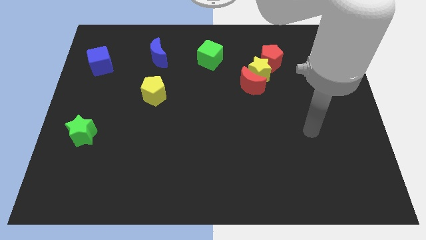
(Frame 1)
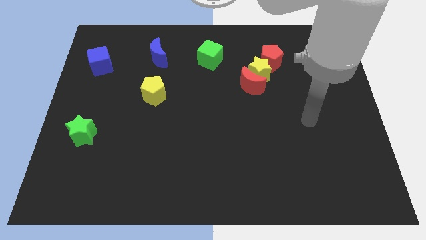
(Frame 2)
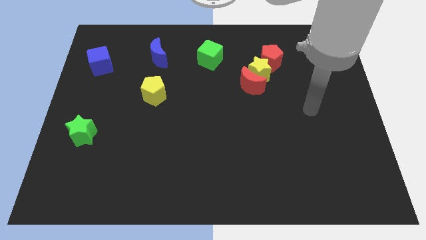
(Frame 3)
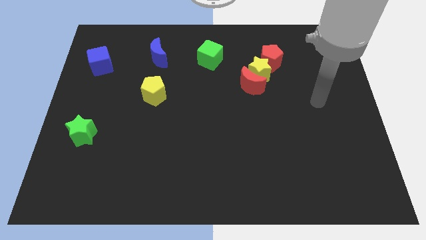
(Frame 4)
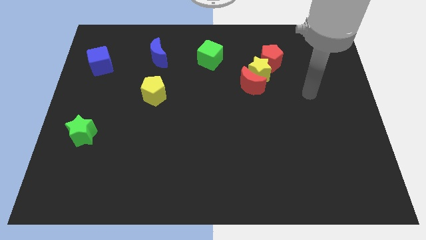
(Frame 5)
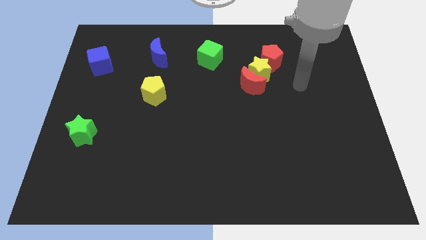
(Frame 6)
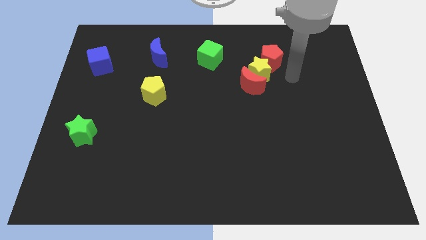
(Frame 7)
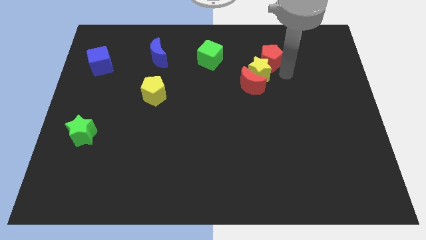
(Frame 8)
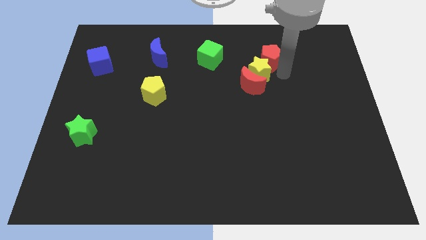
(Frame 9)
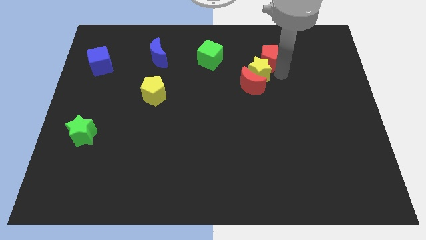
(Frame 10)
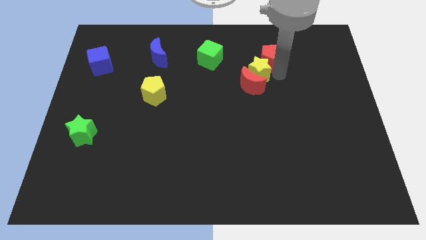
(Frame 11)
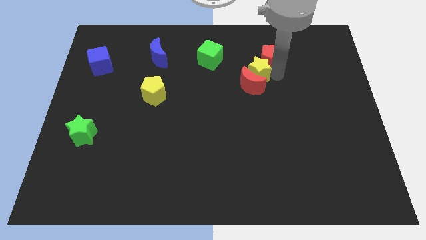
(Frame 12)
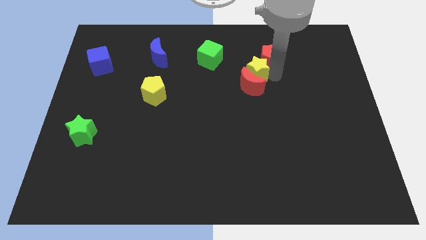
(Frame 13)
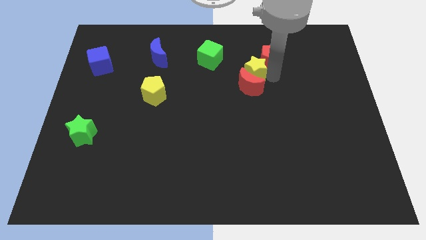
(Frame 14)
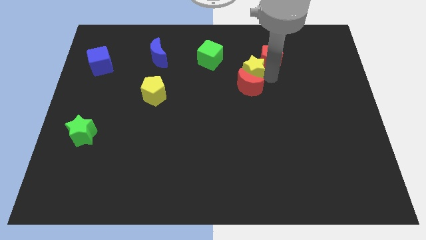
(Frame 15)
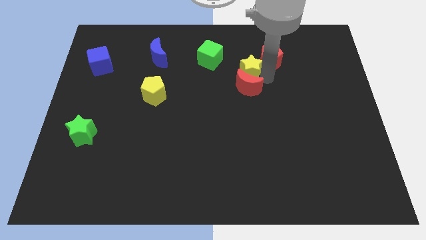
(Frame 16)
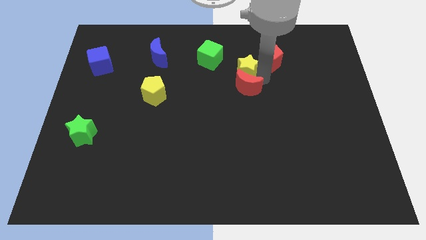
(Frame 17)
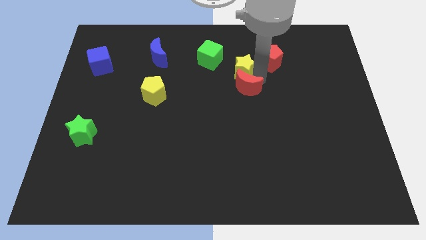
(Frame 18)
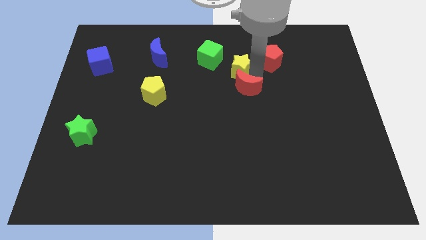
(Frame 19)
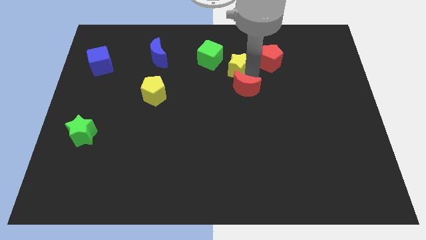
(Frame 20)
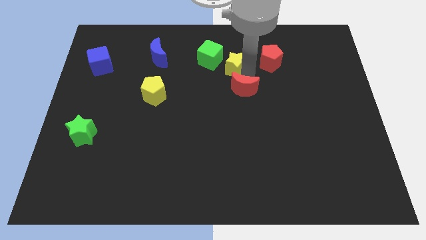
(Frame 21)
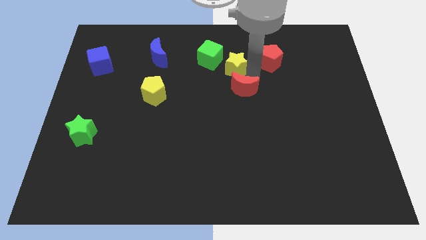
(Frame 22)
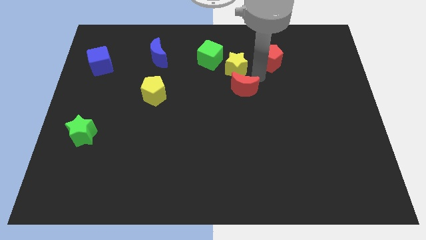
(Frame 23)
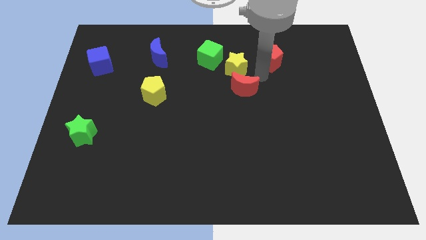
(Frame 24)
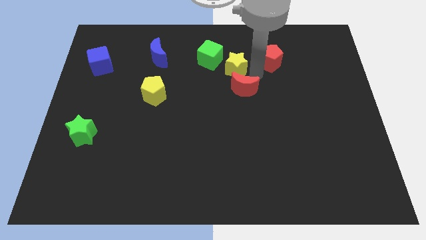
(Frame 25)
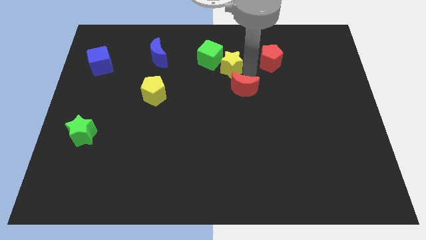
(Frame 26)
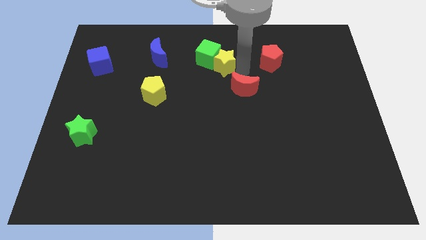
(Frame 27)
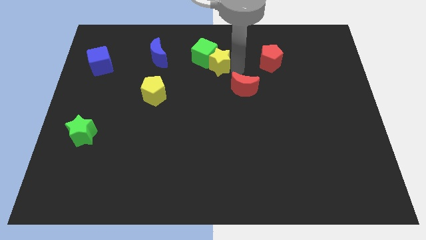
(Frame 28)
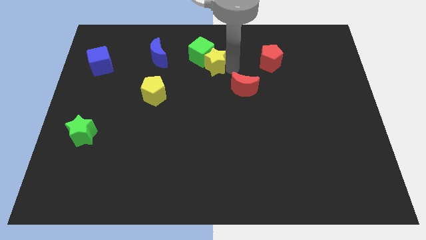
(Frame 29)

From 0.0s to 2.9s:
separate the yellow star from the red moon and red pentagon

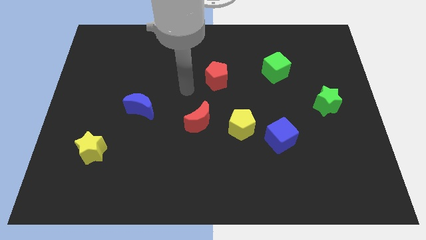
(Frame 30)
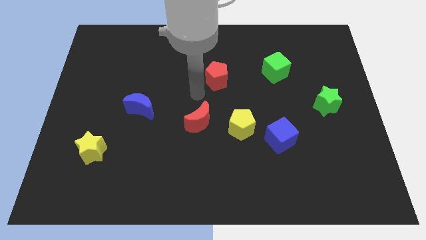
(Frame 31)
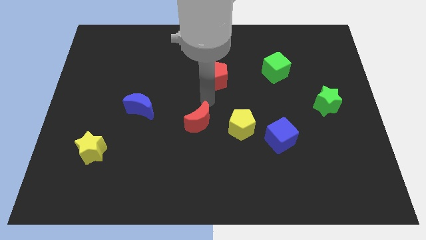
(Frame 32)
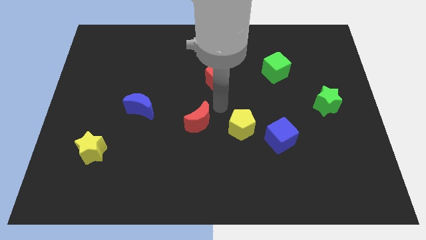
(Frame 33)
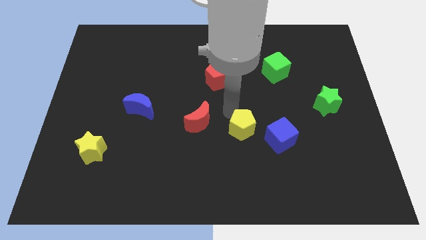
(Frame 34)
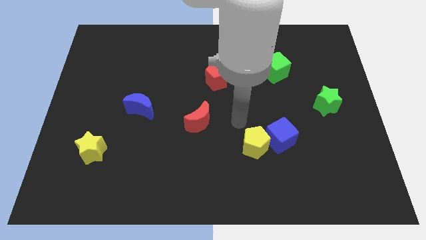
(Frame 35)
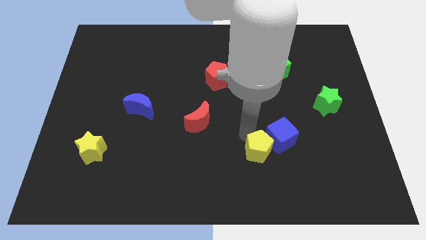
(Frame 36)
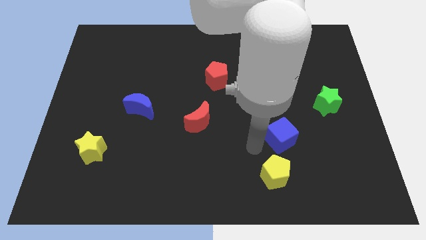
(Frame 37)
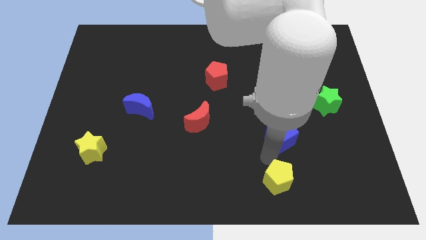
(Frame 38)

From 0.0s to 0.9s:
pull the blue cube apart from the yellow pentagon

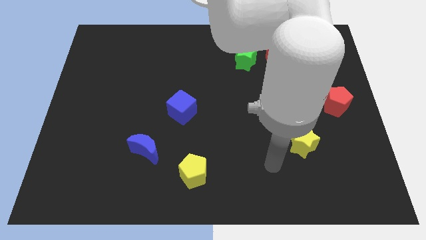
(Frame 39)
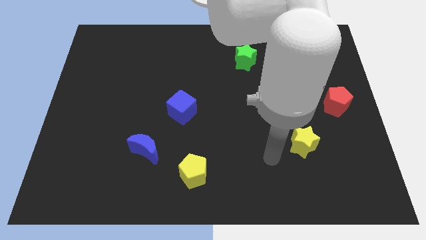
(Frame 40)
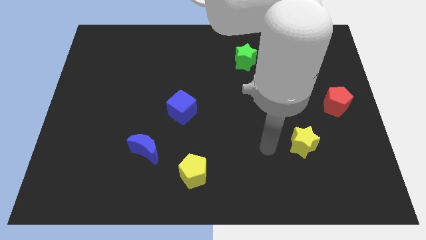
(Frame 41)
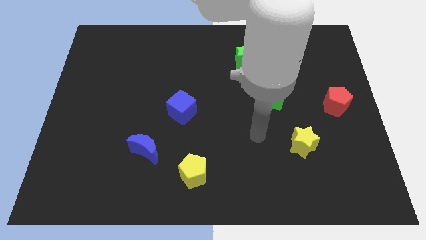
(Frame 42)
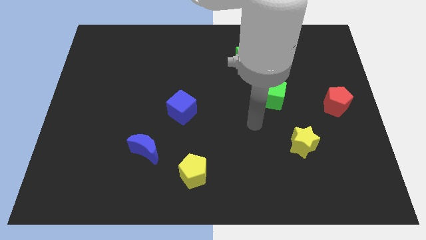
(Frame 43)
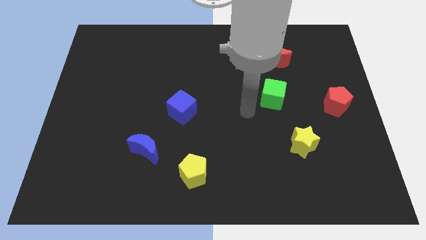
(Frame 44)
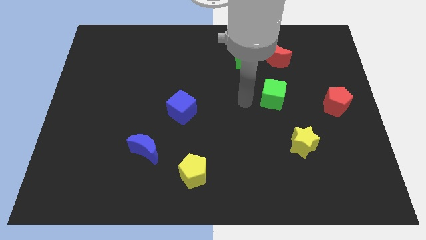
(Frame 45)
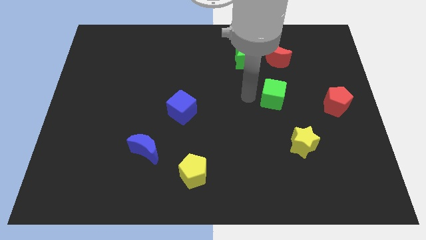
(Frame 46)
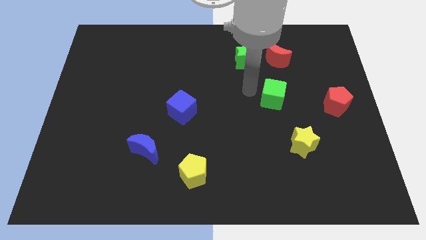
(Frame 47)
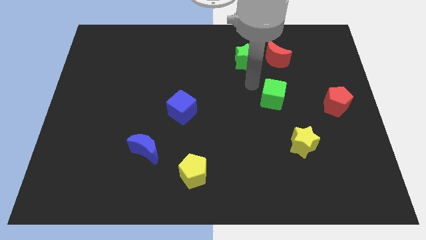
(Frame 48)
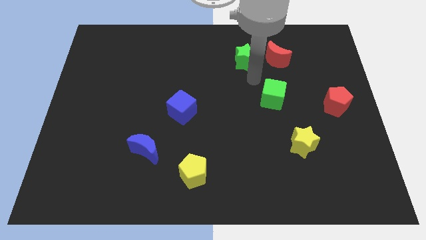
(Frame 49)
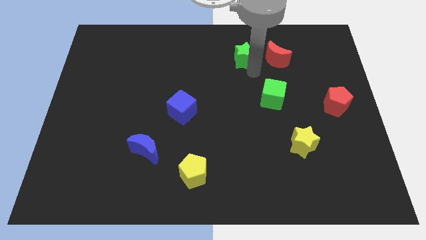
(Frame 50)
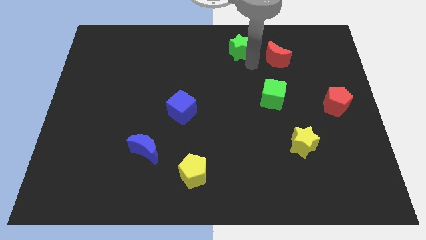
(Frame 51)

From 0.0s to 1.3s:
move the red moon away from the green star

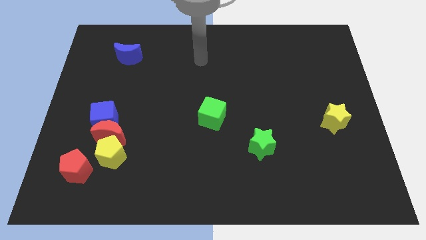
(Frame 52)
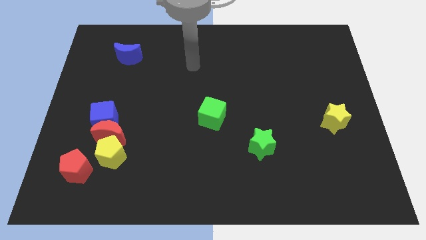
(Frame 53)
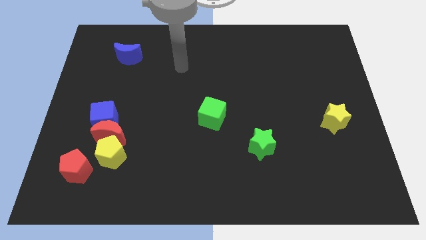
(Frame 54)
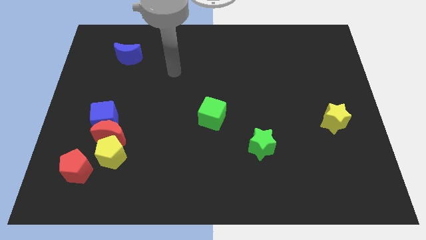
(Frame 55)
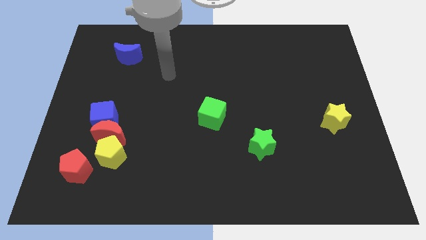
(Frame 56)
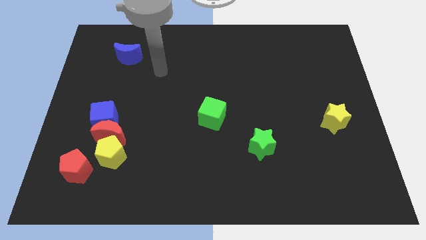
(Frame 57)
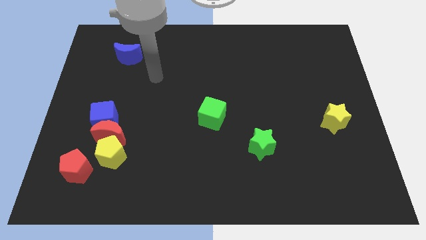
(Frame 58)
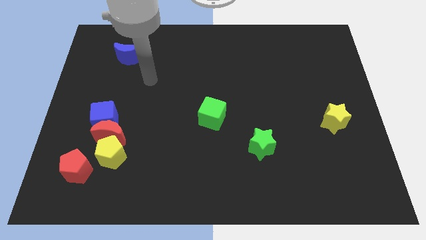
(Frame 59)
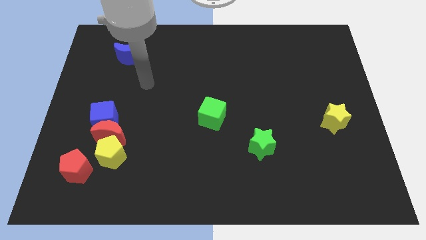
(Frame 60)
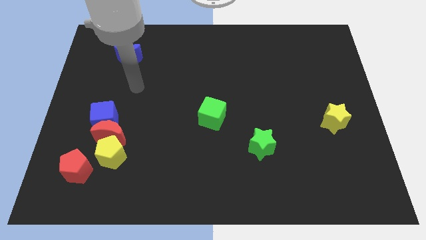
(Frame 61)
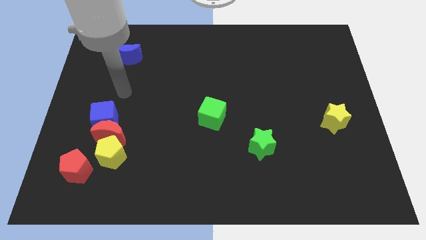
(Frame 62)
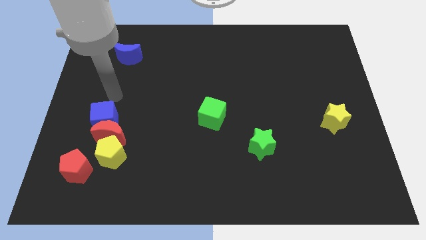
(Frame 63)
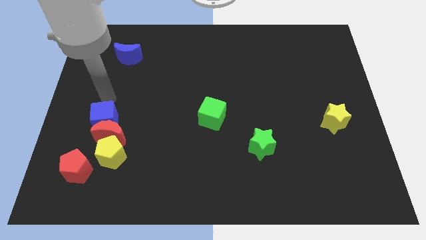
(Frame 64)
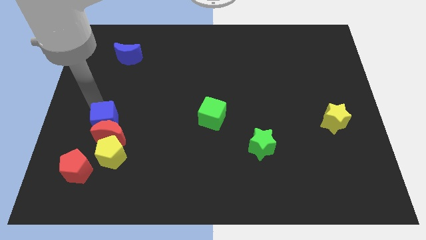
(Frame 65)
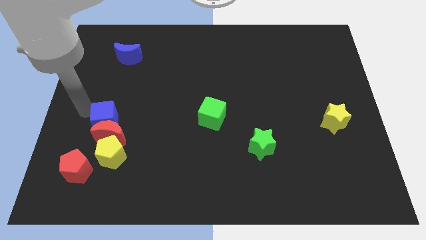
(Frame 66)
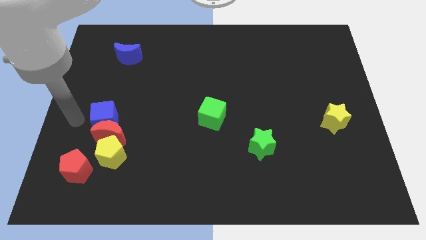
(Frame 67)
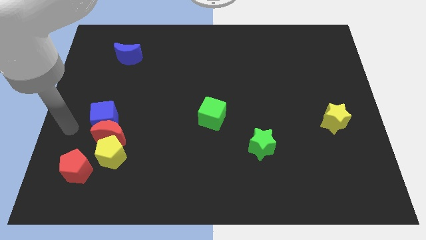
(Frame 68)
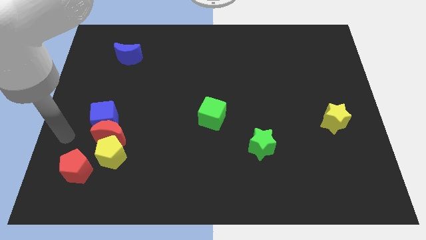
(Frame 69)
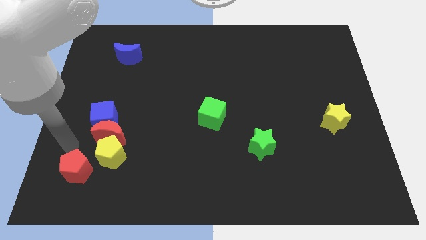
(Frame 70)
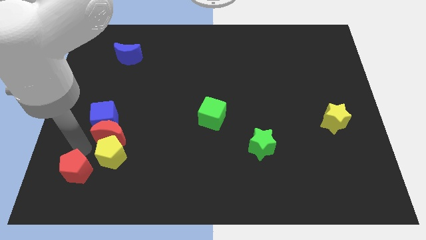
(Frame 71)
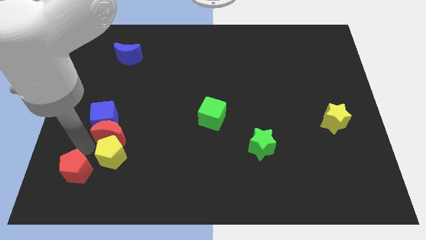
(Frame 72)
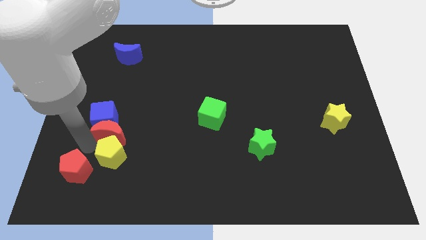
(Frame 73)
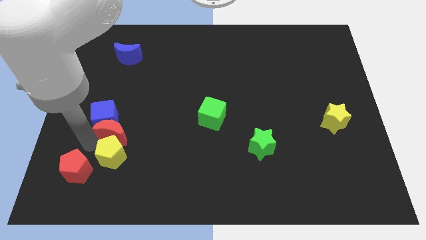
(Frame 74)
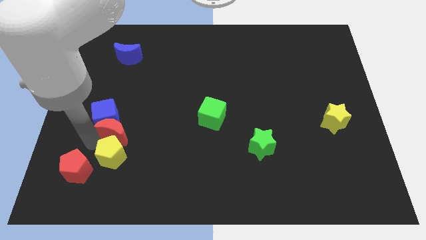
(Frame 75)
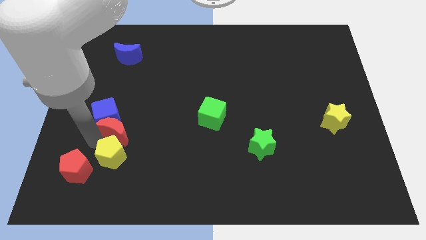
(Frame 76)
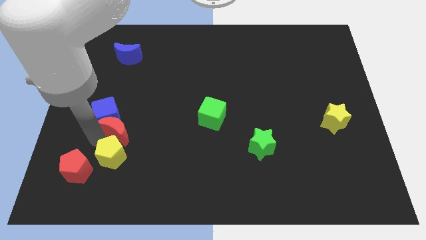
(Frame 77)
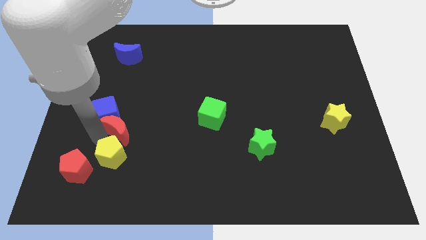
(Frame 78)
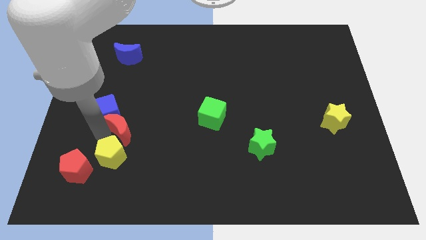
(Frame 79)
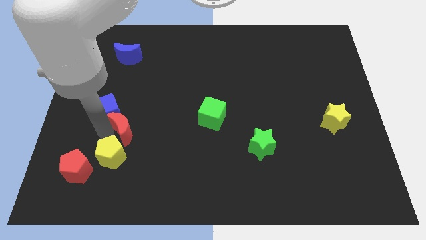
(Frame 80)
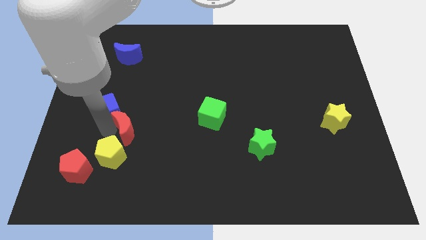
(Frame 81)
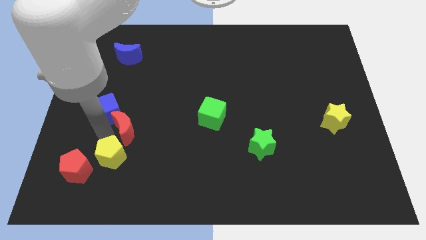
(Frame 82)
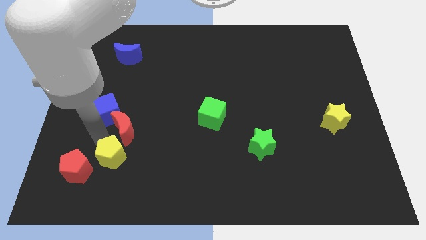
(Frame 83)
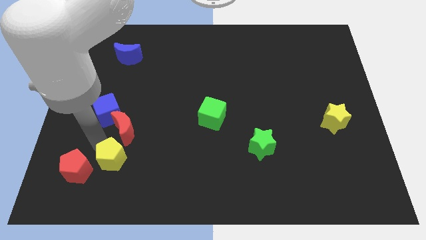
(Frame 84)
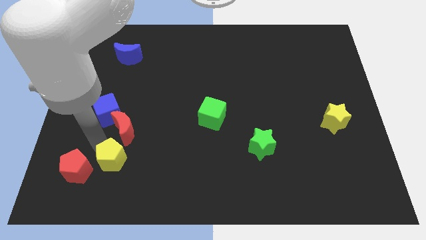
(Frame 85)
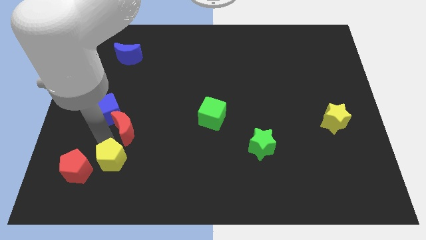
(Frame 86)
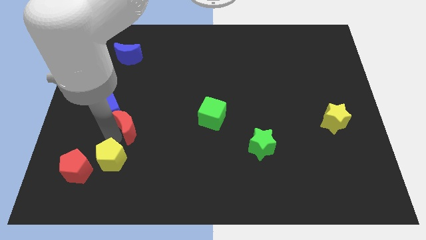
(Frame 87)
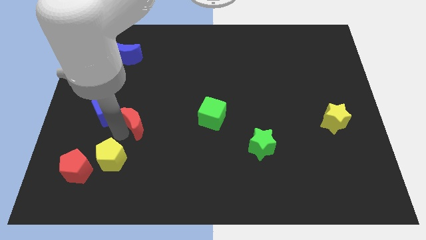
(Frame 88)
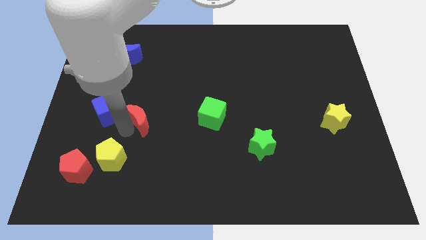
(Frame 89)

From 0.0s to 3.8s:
move the red moon away from the blue cube, yellow pentagon, and red pentagon

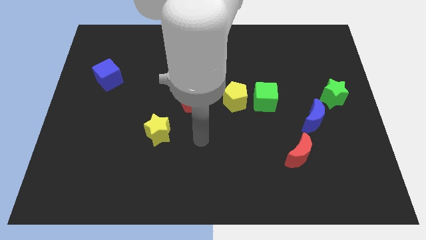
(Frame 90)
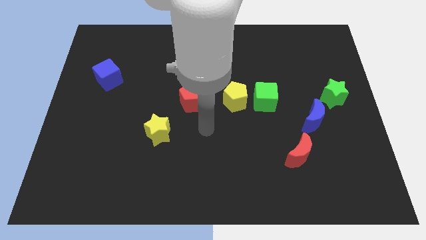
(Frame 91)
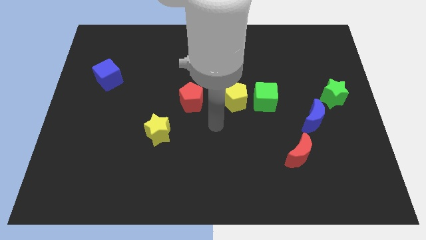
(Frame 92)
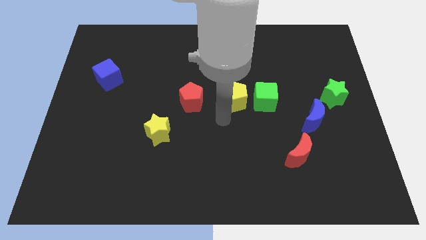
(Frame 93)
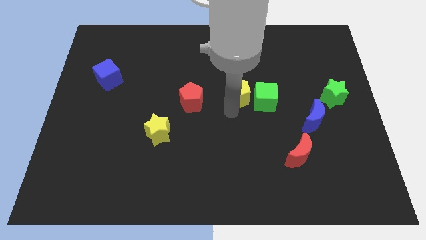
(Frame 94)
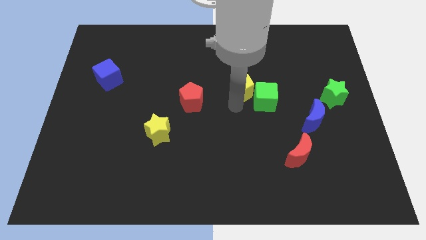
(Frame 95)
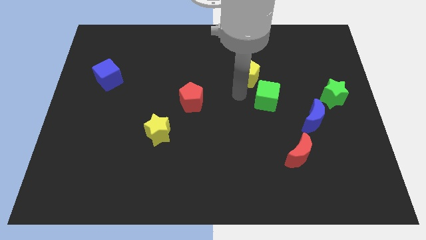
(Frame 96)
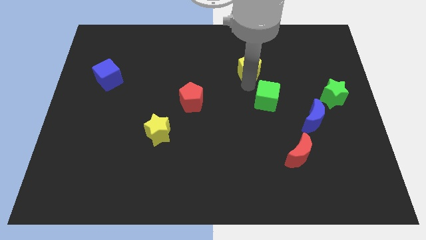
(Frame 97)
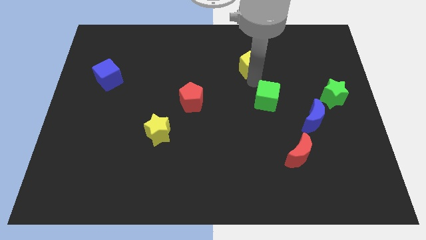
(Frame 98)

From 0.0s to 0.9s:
separate the green cube from the yellow pentagon
